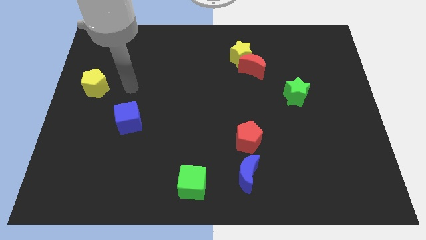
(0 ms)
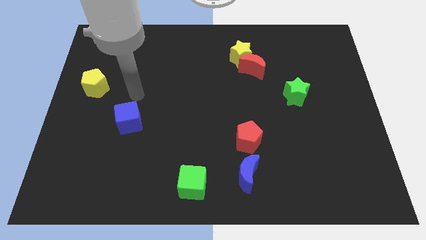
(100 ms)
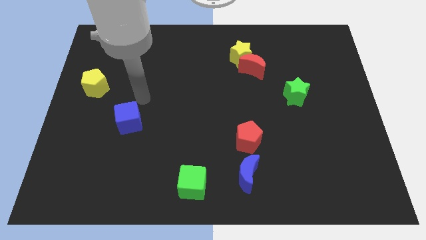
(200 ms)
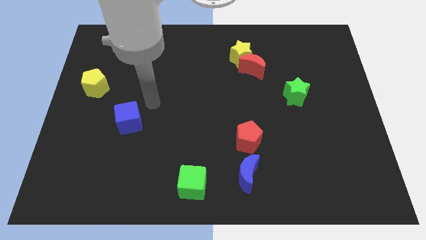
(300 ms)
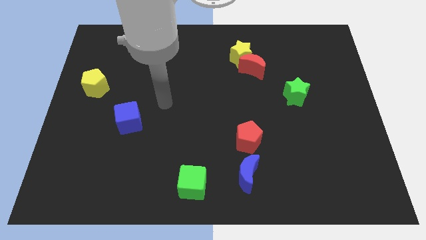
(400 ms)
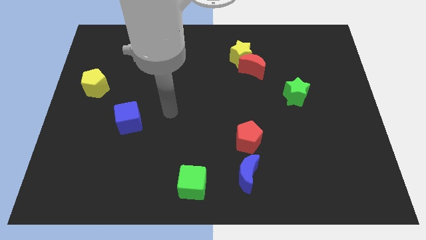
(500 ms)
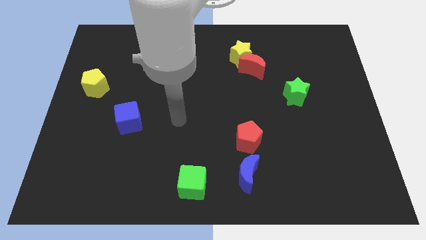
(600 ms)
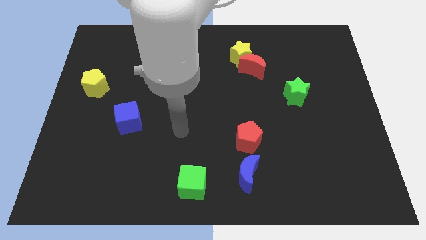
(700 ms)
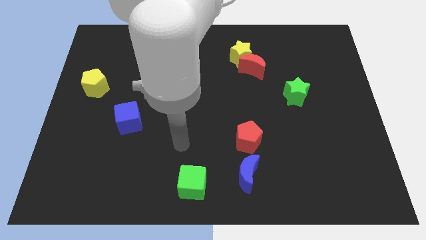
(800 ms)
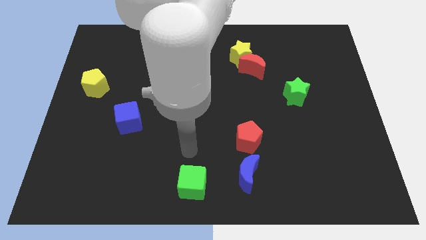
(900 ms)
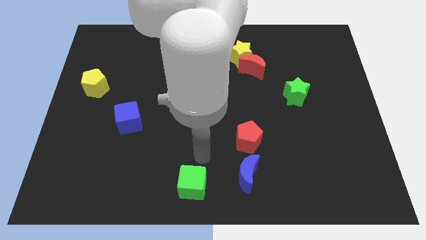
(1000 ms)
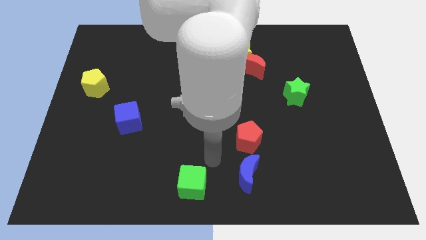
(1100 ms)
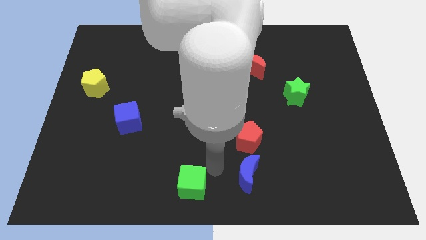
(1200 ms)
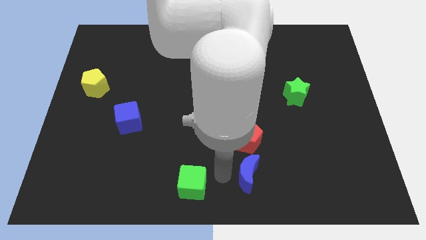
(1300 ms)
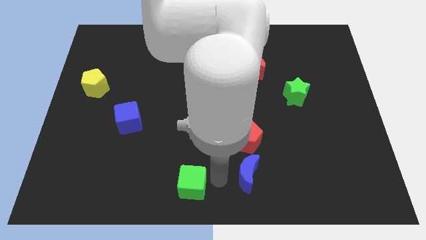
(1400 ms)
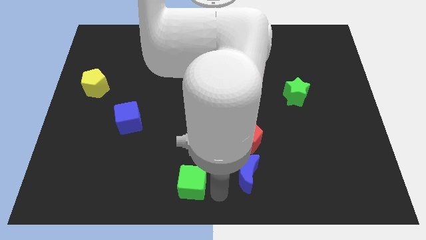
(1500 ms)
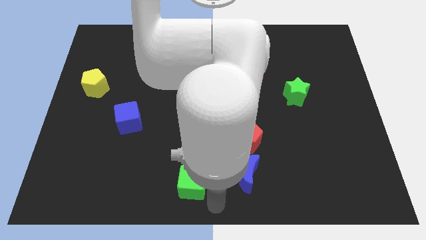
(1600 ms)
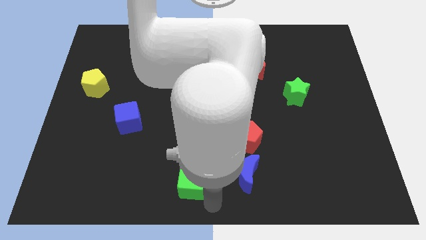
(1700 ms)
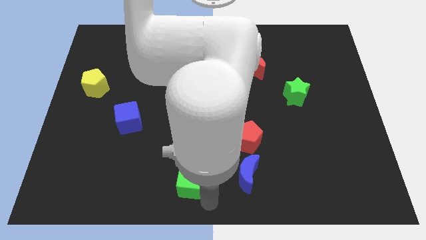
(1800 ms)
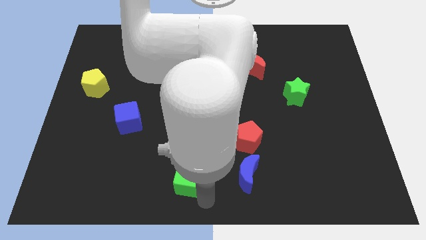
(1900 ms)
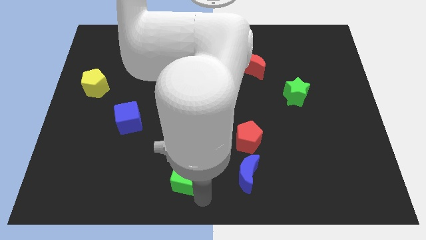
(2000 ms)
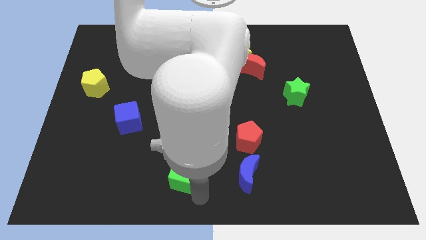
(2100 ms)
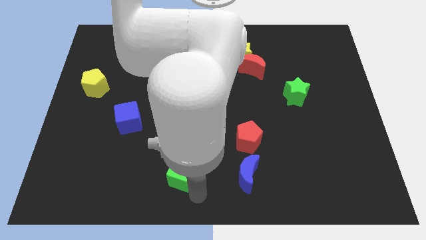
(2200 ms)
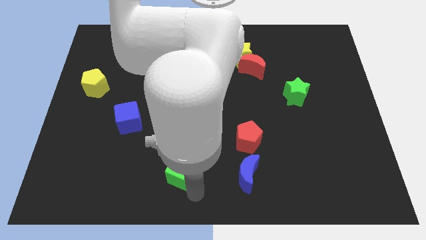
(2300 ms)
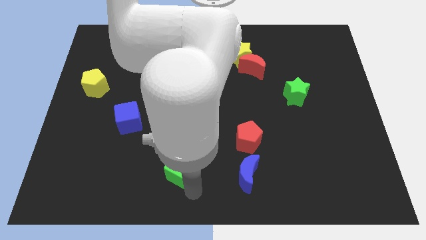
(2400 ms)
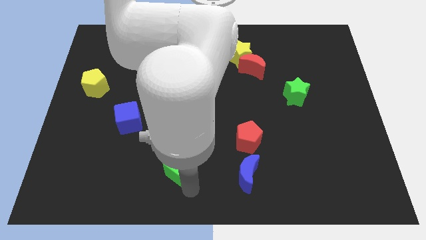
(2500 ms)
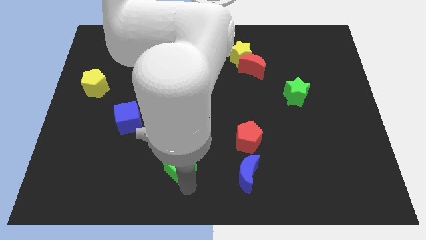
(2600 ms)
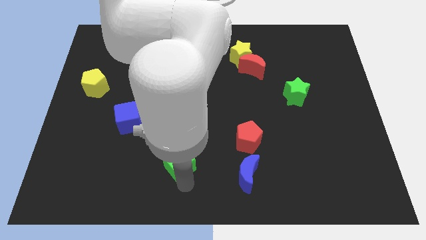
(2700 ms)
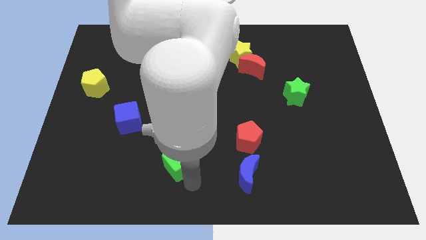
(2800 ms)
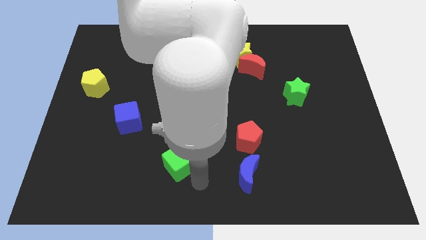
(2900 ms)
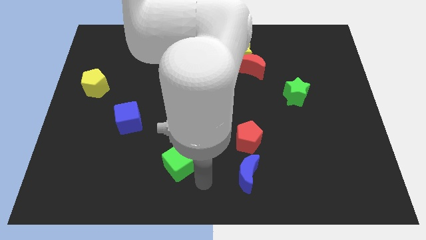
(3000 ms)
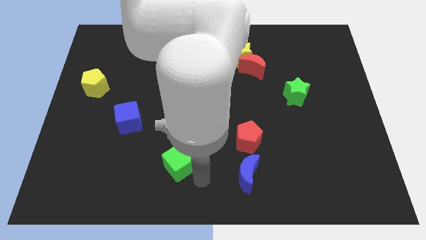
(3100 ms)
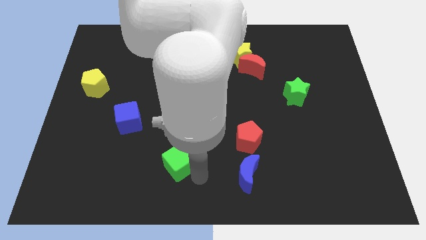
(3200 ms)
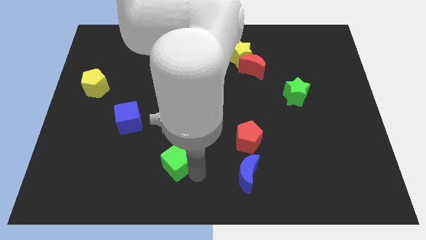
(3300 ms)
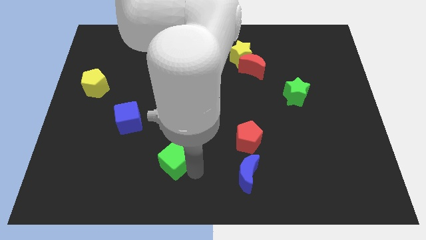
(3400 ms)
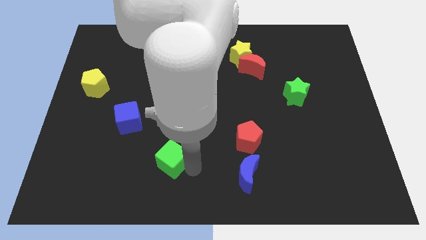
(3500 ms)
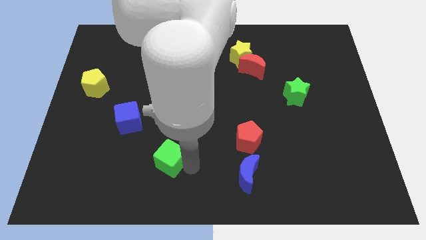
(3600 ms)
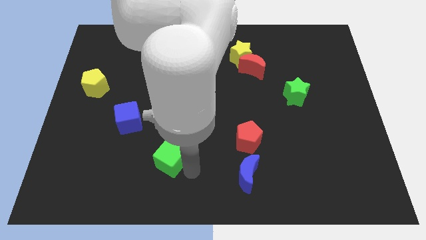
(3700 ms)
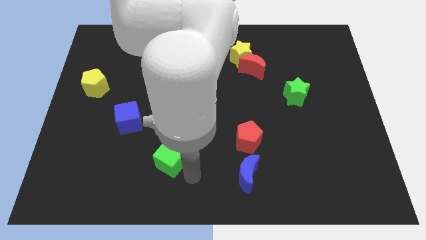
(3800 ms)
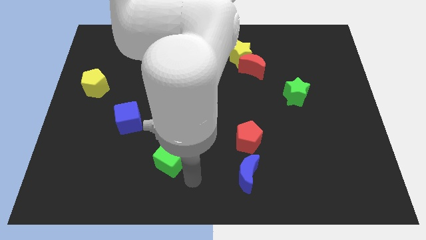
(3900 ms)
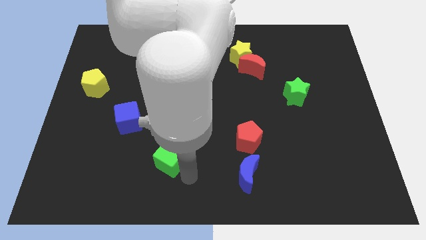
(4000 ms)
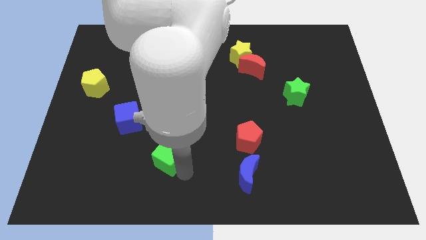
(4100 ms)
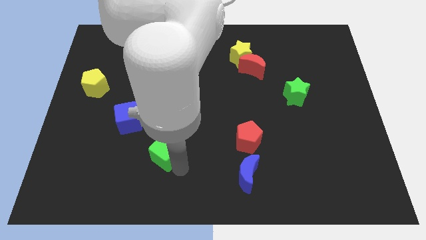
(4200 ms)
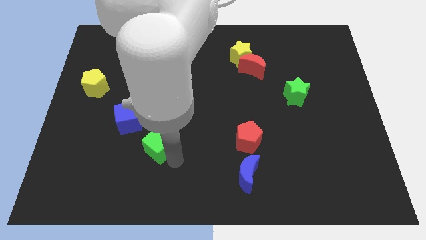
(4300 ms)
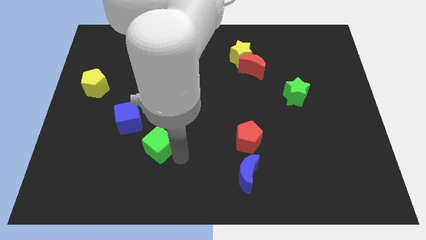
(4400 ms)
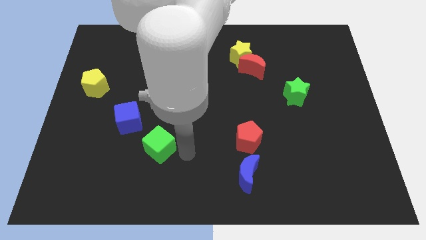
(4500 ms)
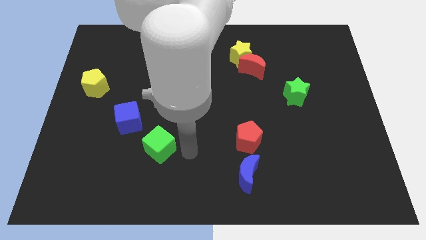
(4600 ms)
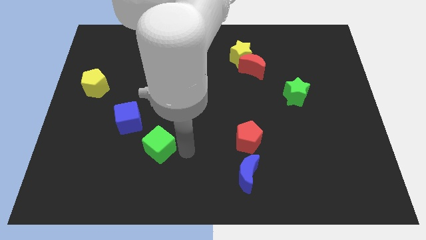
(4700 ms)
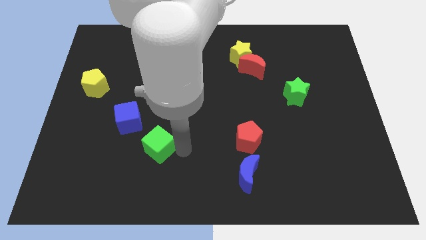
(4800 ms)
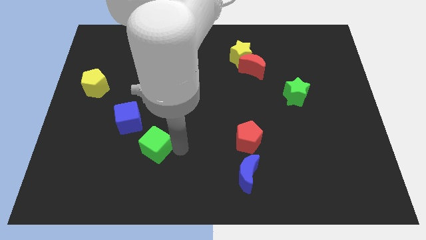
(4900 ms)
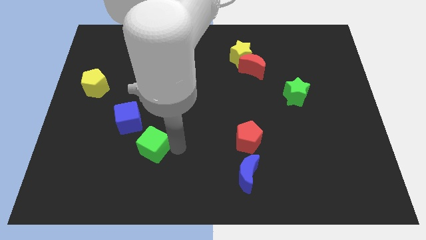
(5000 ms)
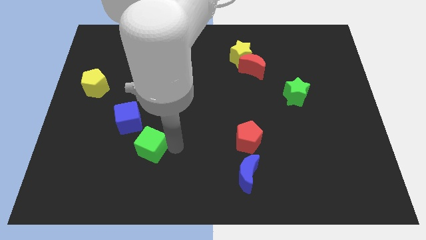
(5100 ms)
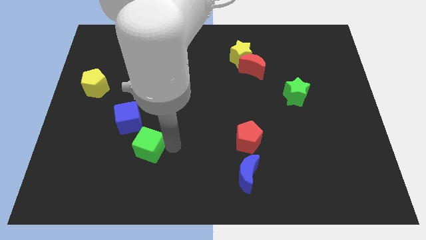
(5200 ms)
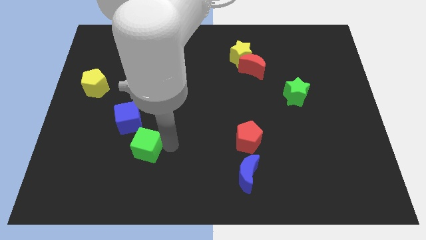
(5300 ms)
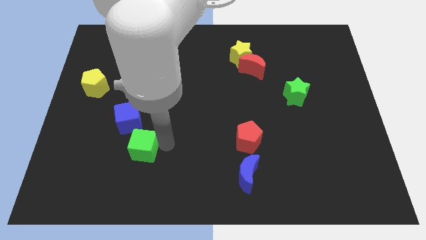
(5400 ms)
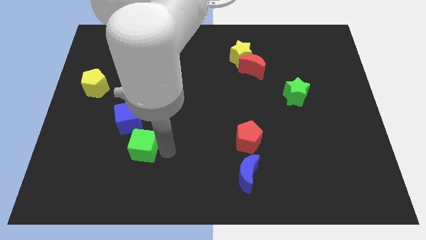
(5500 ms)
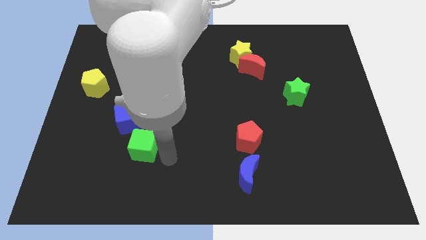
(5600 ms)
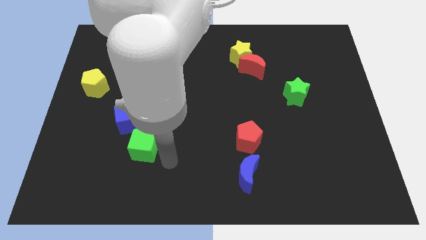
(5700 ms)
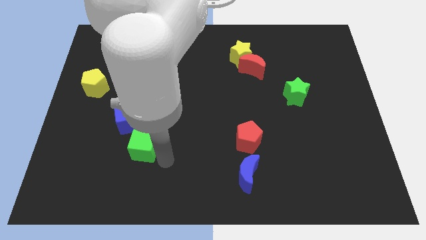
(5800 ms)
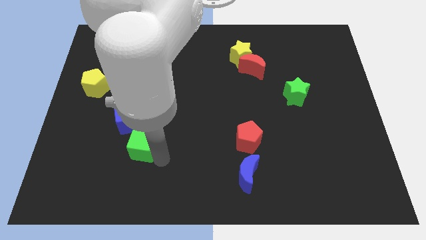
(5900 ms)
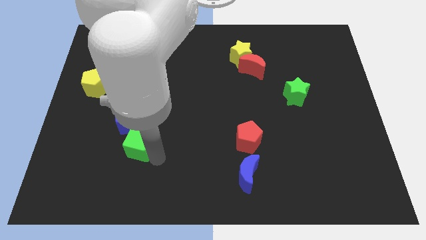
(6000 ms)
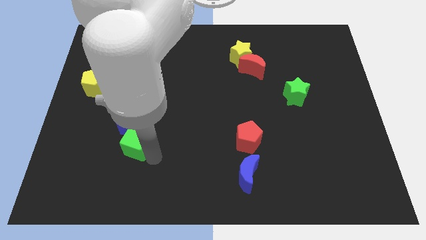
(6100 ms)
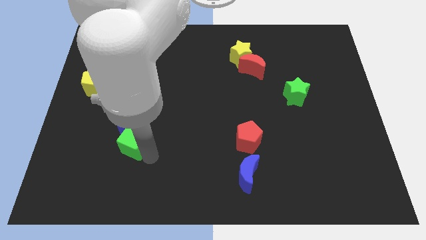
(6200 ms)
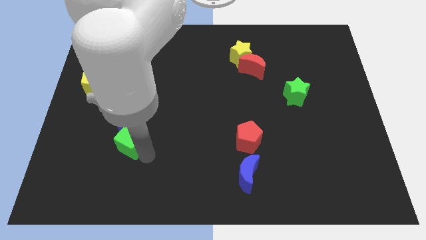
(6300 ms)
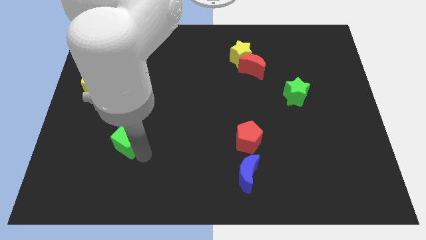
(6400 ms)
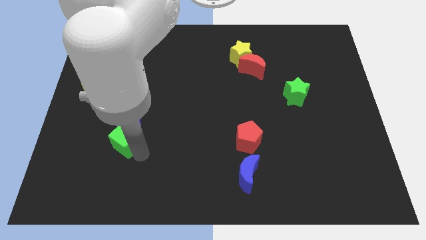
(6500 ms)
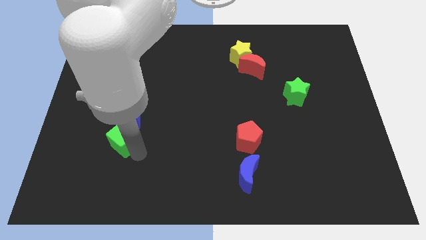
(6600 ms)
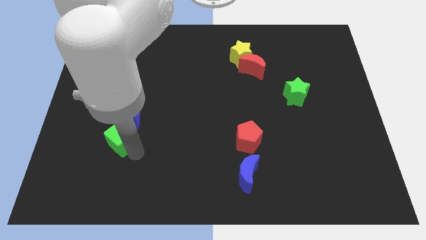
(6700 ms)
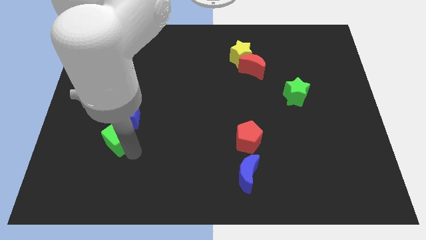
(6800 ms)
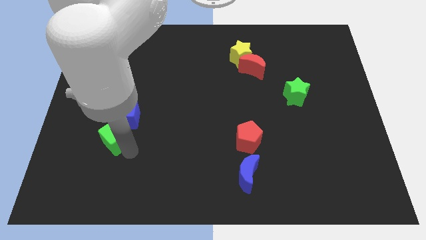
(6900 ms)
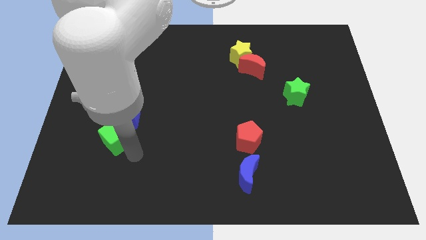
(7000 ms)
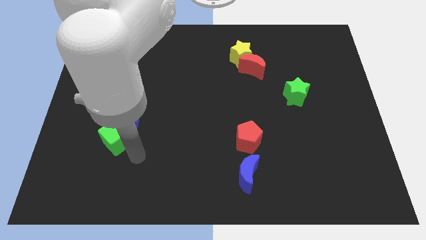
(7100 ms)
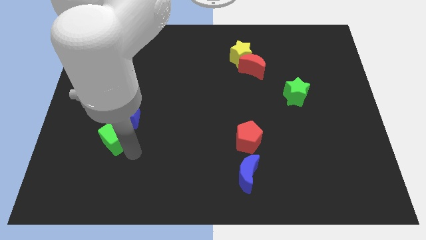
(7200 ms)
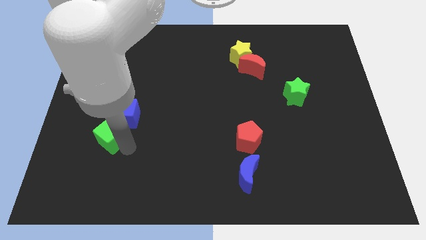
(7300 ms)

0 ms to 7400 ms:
move the green cube upwards and left

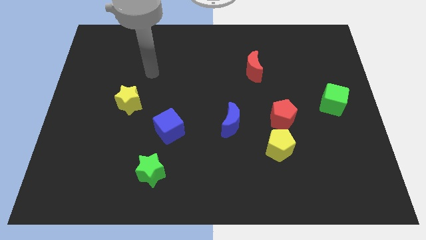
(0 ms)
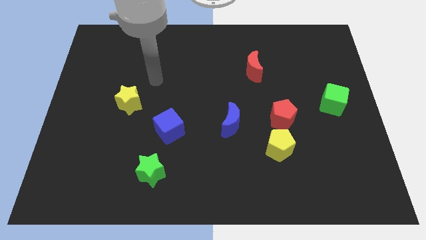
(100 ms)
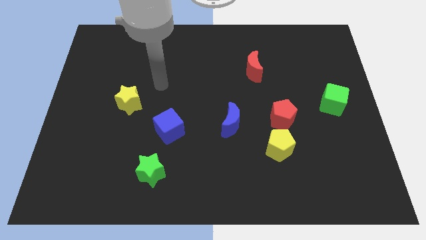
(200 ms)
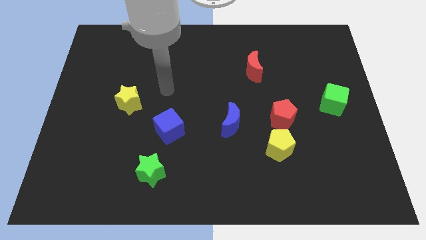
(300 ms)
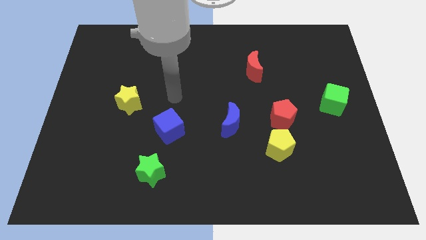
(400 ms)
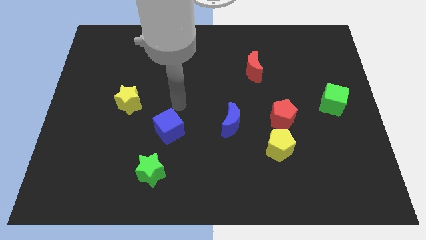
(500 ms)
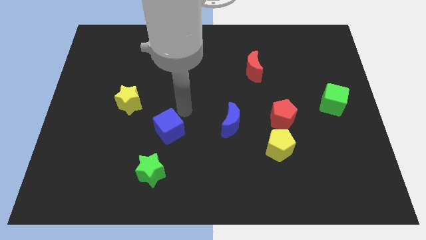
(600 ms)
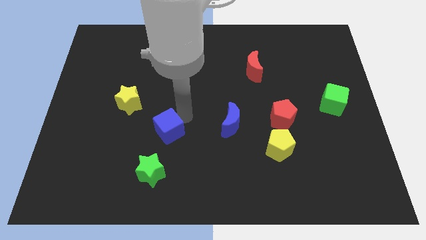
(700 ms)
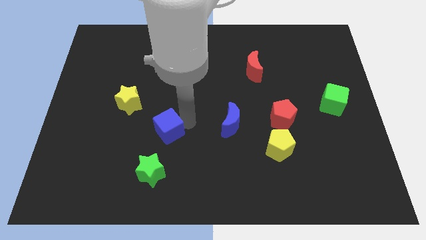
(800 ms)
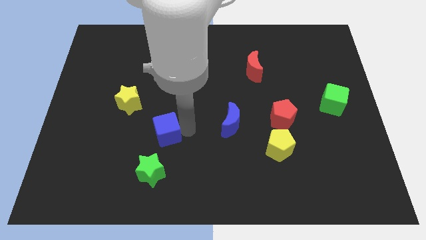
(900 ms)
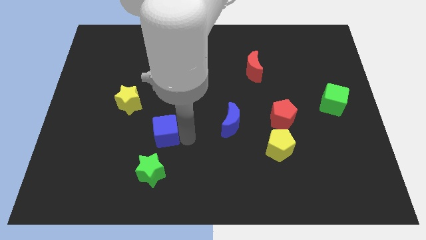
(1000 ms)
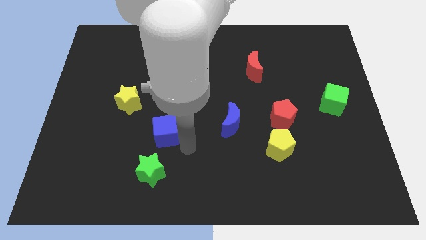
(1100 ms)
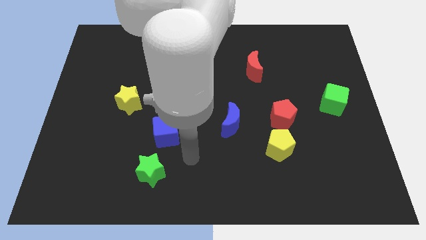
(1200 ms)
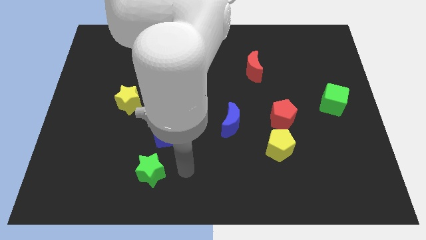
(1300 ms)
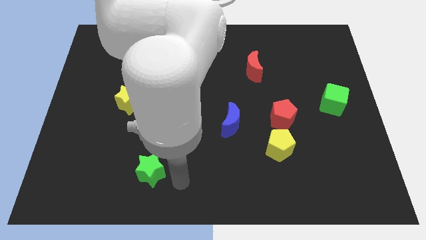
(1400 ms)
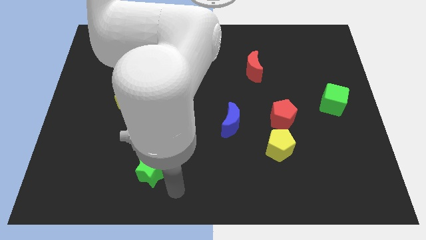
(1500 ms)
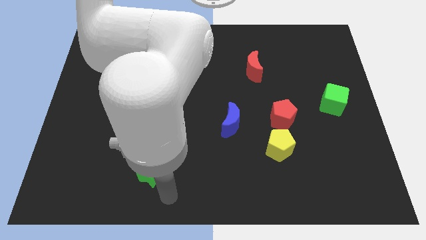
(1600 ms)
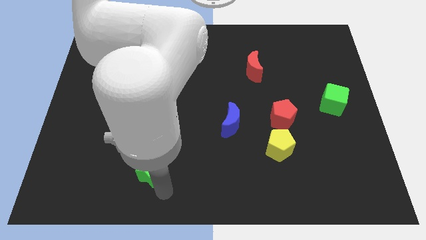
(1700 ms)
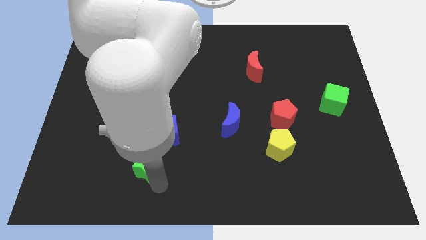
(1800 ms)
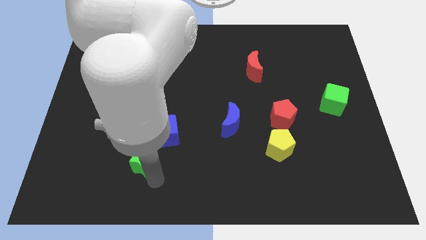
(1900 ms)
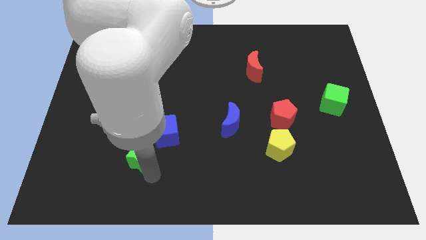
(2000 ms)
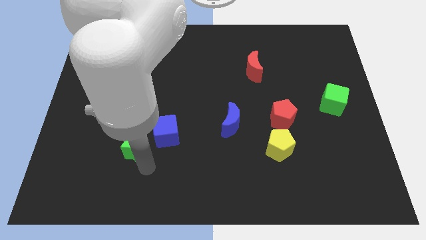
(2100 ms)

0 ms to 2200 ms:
push the green star slightly upwards and left diagonally
